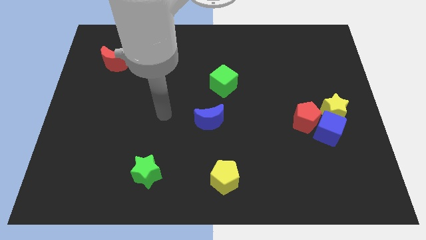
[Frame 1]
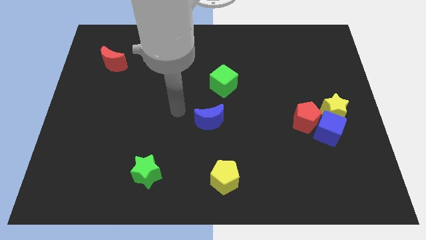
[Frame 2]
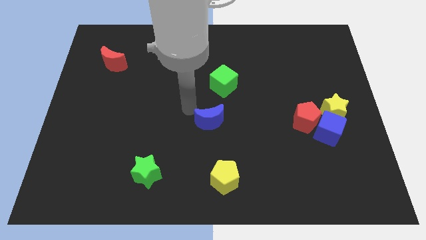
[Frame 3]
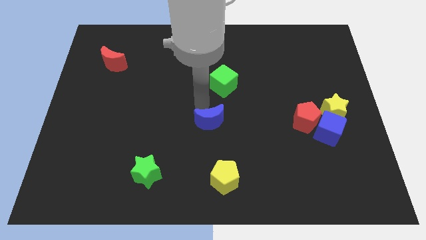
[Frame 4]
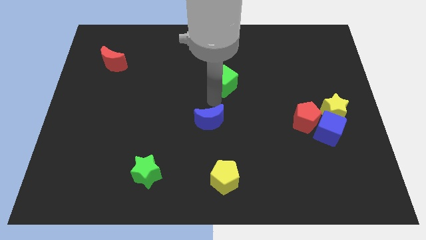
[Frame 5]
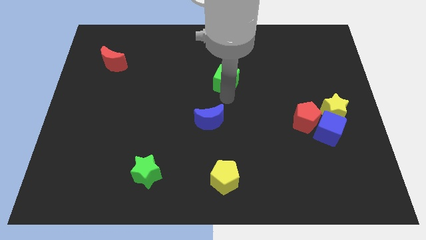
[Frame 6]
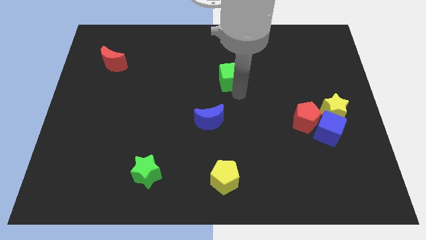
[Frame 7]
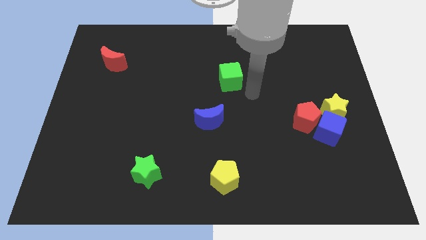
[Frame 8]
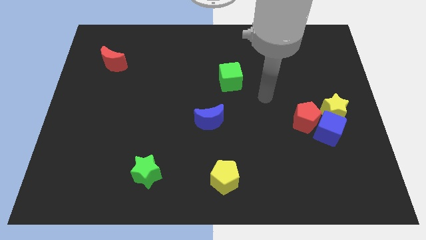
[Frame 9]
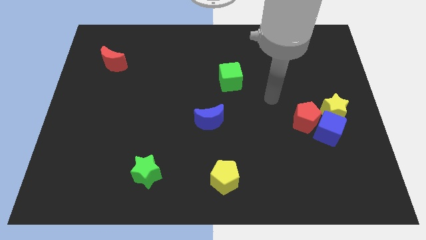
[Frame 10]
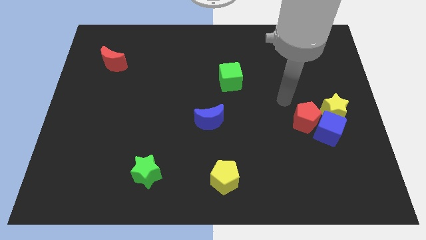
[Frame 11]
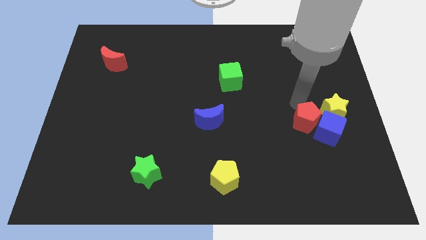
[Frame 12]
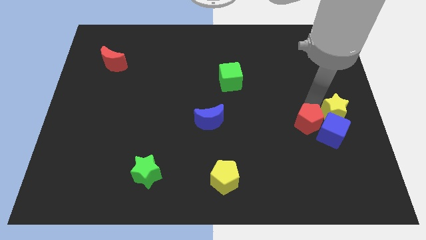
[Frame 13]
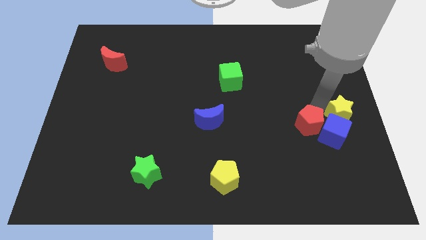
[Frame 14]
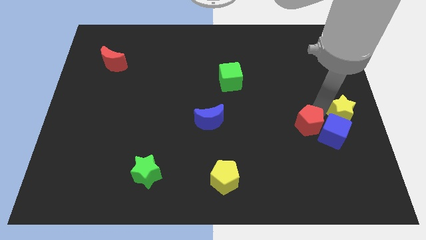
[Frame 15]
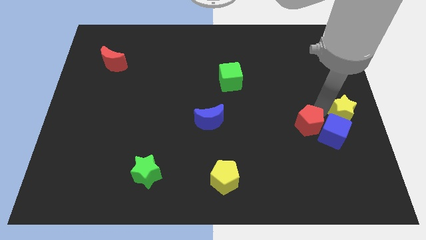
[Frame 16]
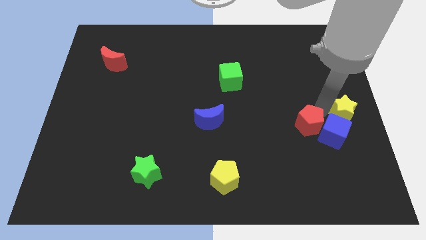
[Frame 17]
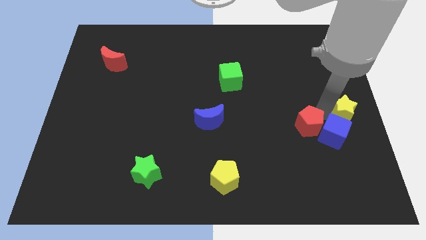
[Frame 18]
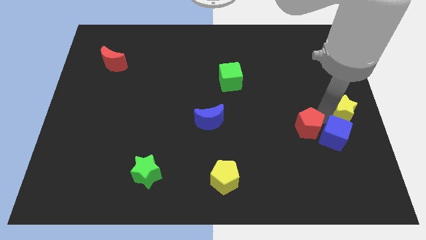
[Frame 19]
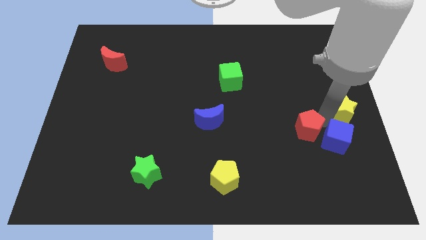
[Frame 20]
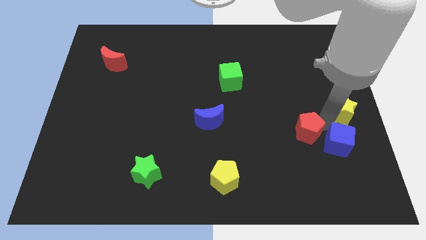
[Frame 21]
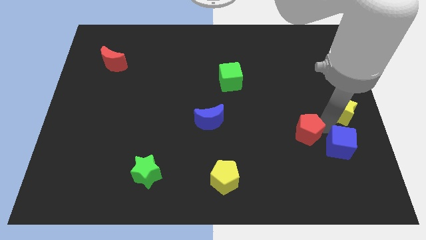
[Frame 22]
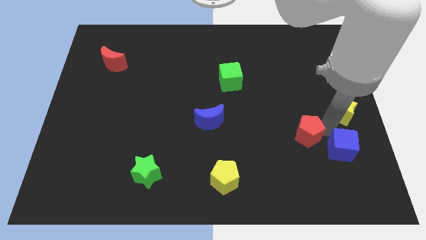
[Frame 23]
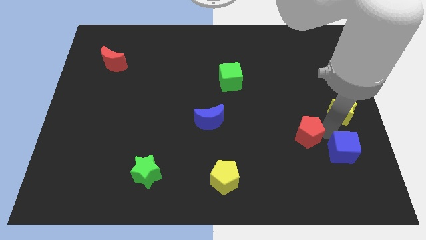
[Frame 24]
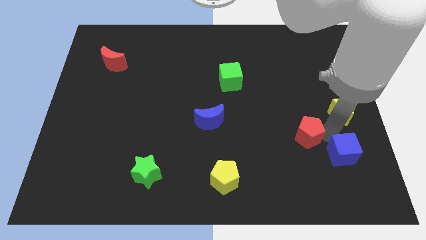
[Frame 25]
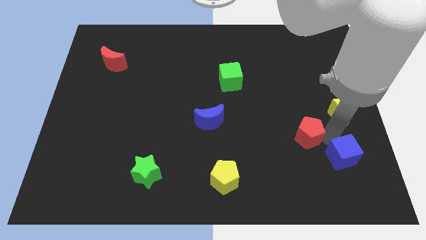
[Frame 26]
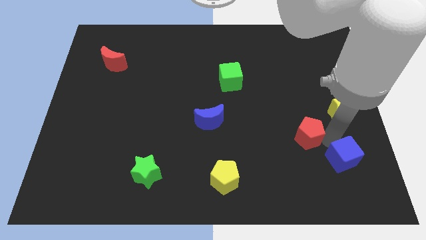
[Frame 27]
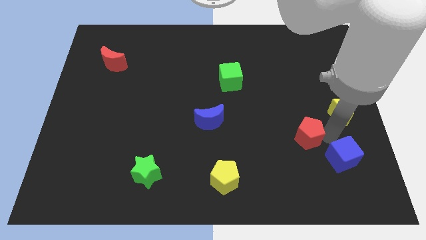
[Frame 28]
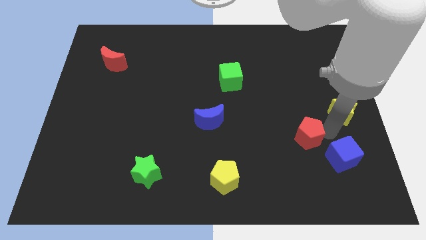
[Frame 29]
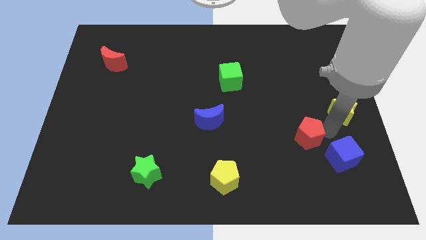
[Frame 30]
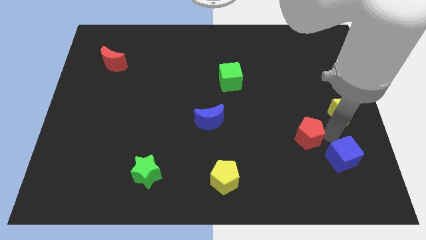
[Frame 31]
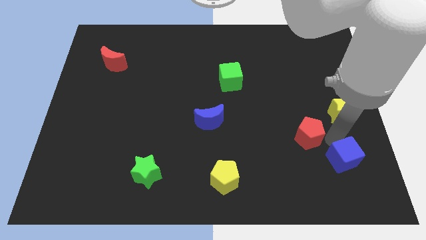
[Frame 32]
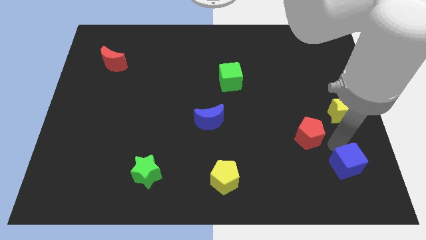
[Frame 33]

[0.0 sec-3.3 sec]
pull the blue cube apart from the red pentagon and yellow star

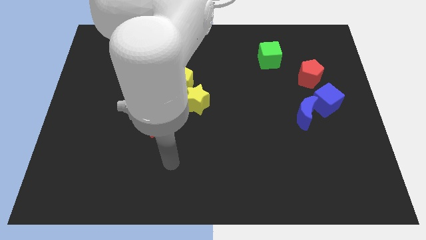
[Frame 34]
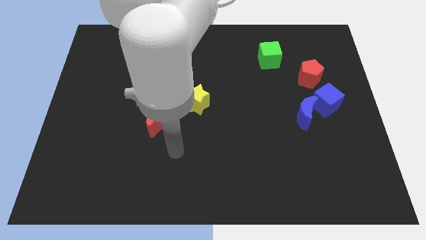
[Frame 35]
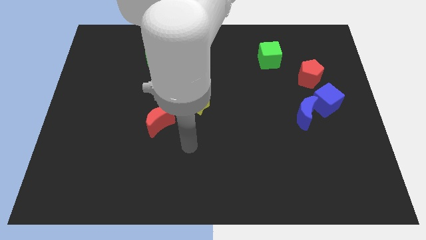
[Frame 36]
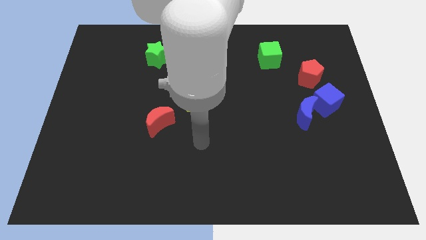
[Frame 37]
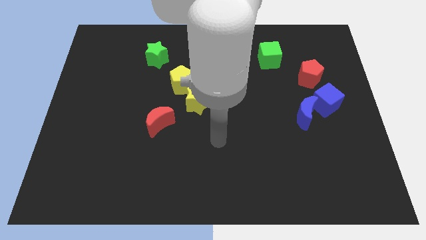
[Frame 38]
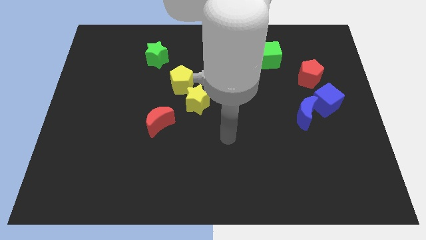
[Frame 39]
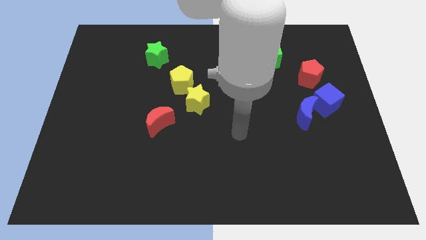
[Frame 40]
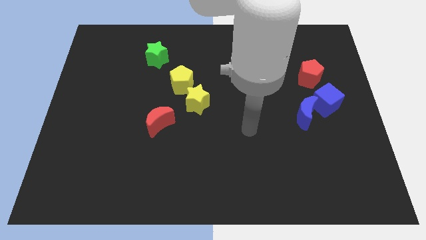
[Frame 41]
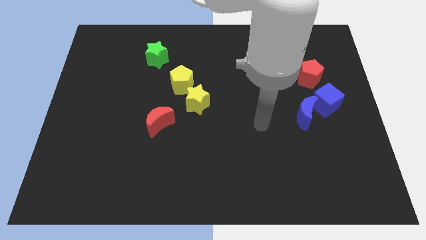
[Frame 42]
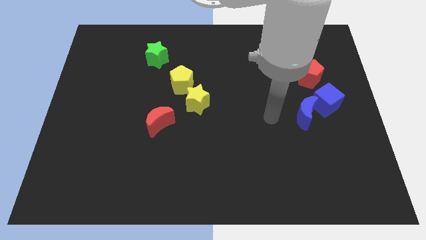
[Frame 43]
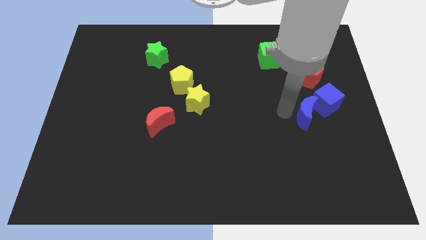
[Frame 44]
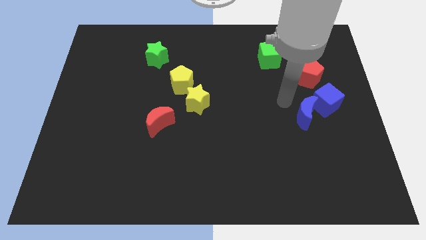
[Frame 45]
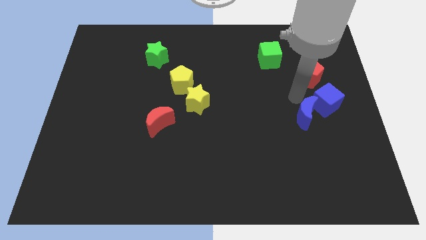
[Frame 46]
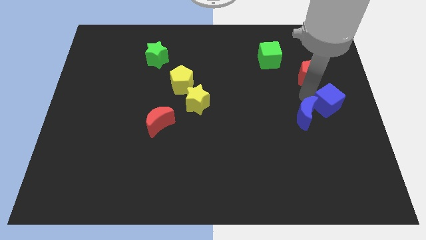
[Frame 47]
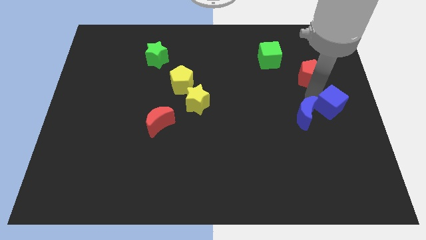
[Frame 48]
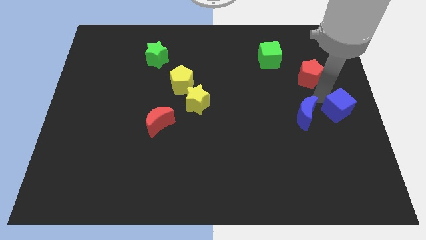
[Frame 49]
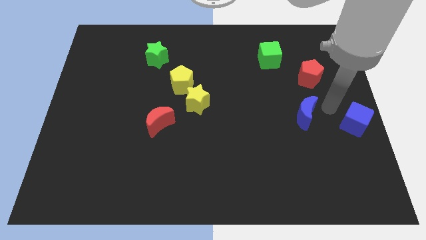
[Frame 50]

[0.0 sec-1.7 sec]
pull the blue moon apart from the blue cube

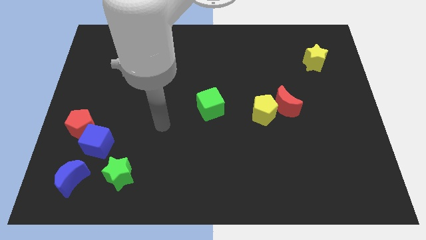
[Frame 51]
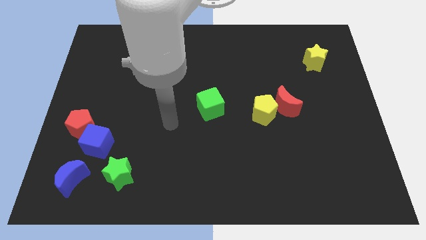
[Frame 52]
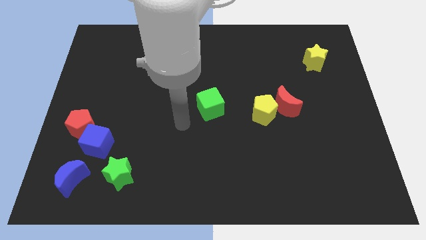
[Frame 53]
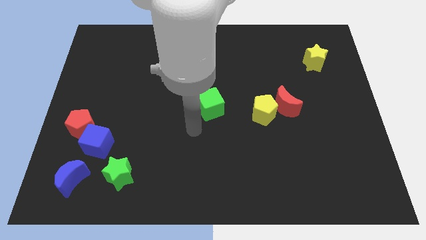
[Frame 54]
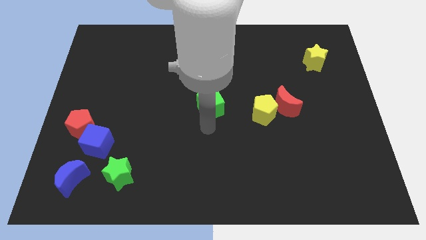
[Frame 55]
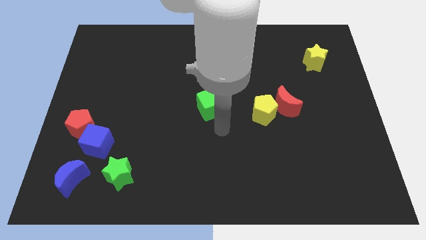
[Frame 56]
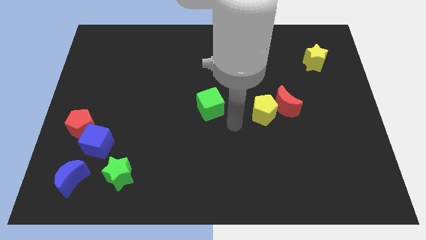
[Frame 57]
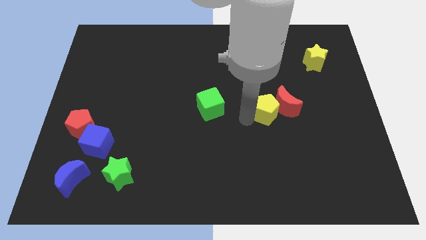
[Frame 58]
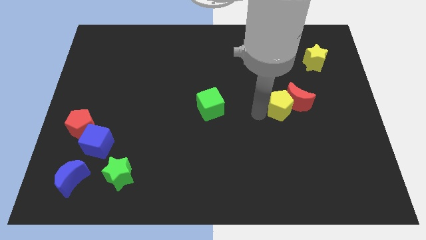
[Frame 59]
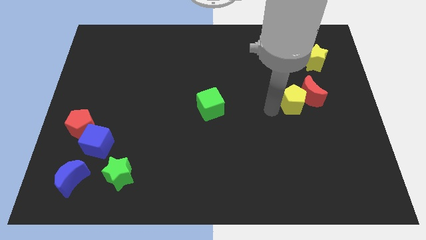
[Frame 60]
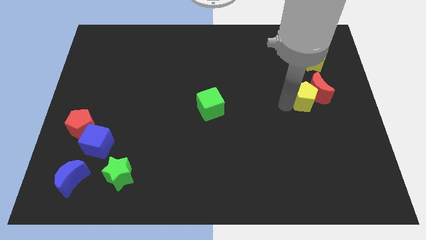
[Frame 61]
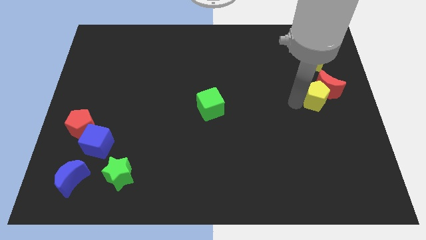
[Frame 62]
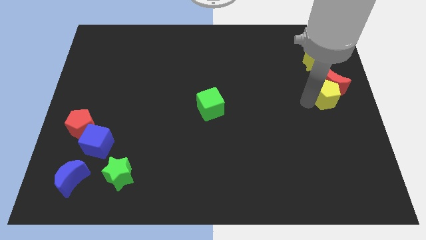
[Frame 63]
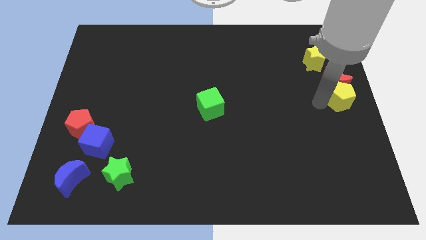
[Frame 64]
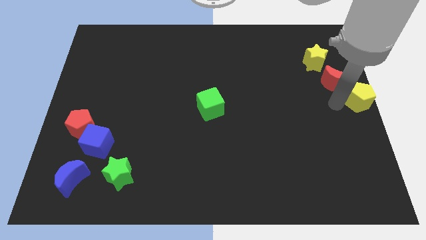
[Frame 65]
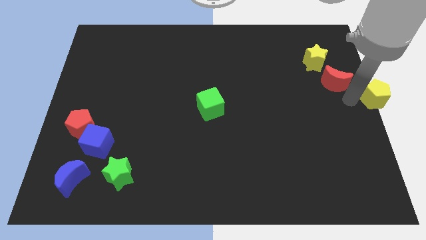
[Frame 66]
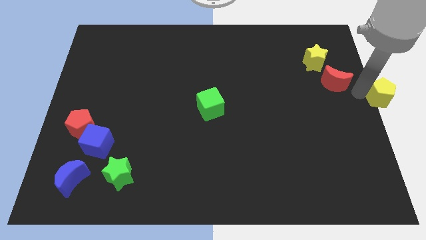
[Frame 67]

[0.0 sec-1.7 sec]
pull the red moon apart from the yellow pentagon

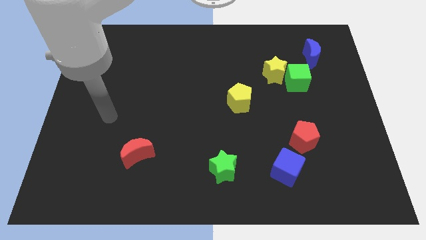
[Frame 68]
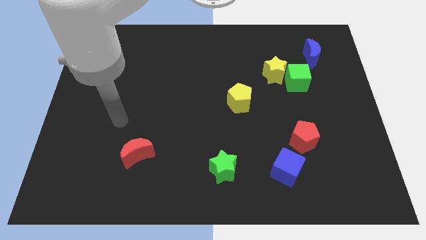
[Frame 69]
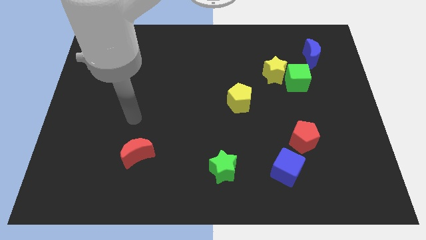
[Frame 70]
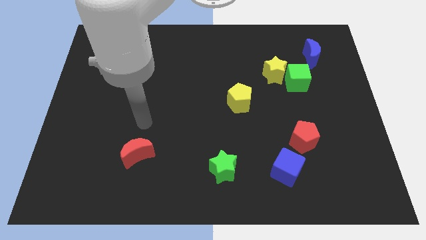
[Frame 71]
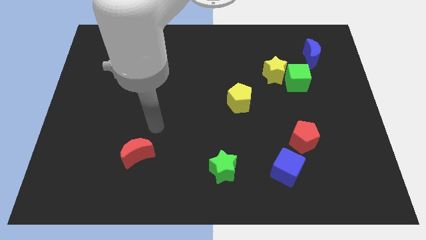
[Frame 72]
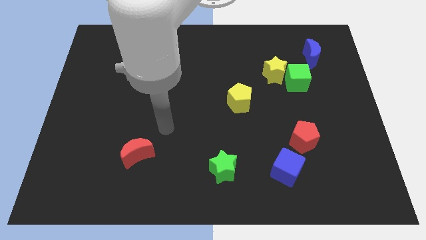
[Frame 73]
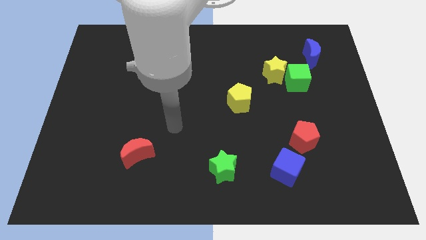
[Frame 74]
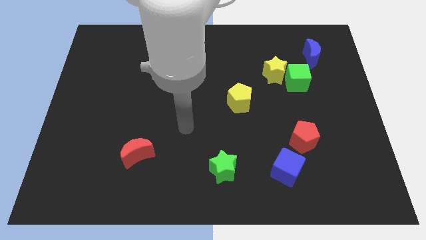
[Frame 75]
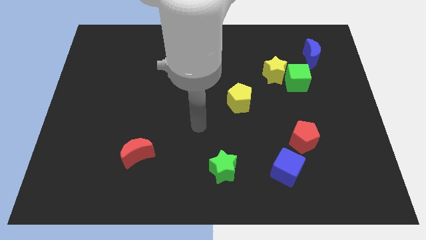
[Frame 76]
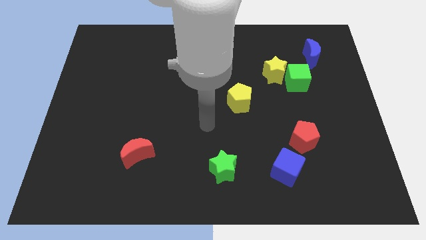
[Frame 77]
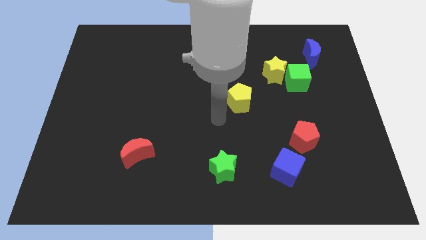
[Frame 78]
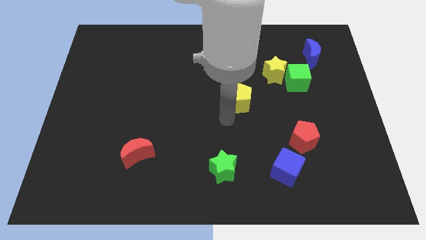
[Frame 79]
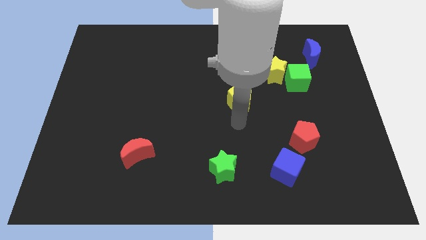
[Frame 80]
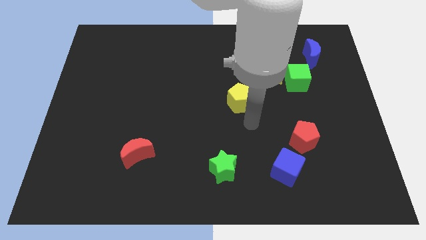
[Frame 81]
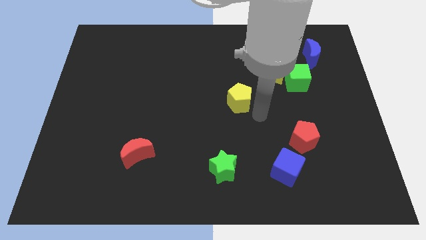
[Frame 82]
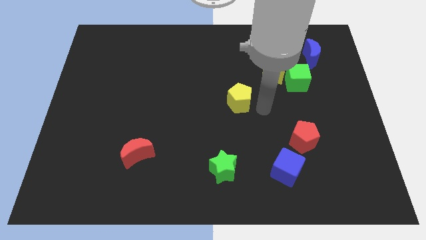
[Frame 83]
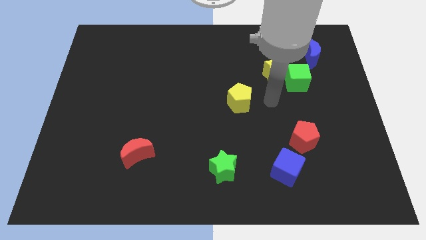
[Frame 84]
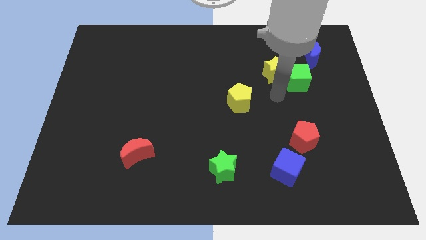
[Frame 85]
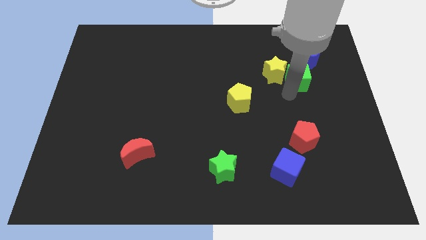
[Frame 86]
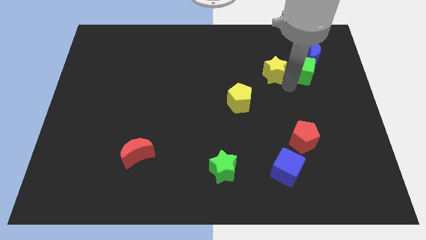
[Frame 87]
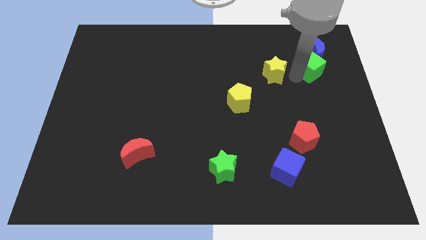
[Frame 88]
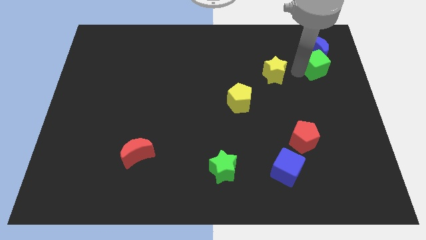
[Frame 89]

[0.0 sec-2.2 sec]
pull the yellow star apart from the green cube

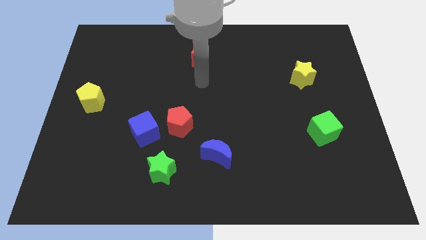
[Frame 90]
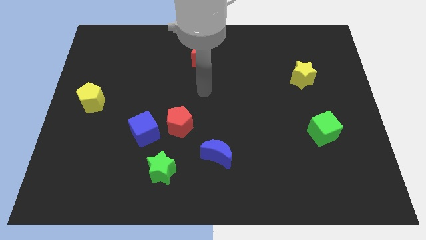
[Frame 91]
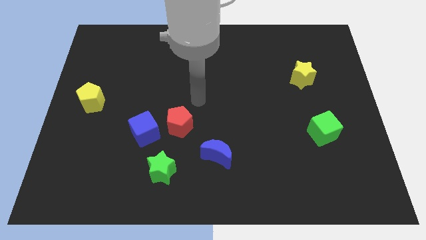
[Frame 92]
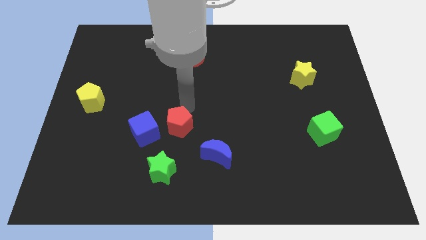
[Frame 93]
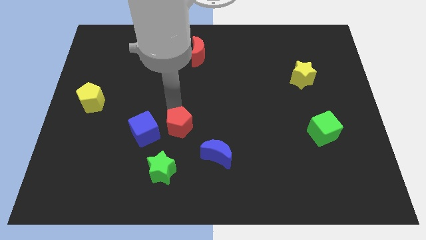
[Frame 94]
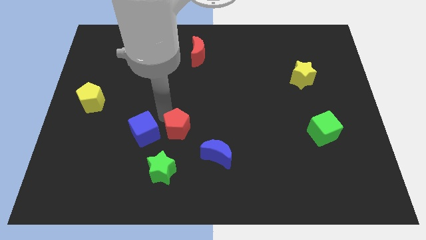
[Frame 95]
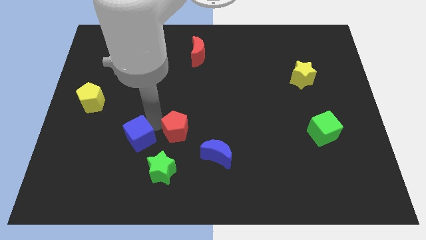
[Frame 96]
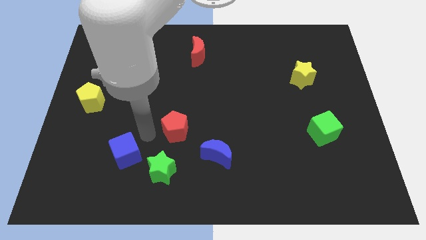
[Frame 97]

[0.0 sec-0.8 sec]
pull the red pentagon apart from the blue cube
